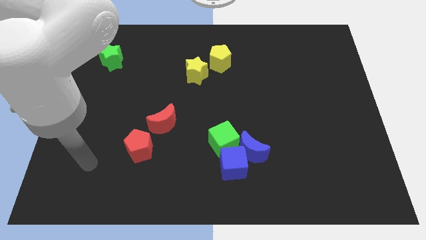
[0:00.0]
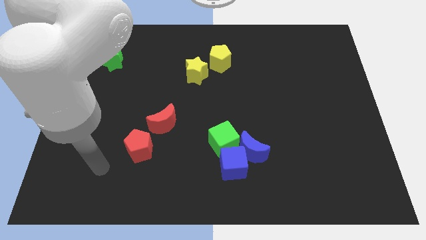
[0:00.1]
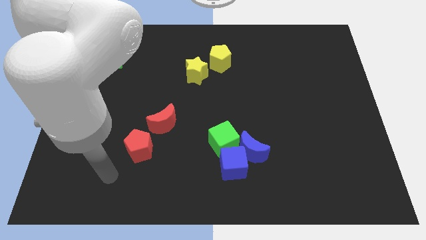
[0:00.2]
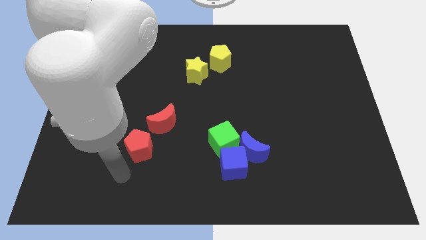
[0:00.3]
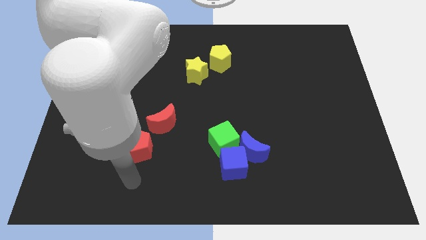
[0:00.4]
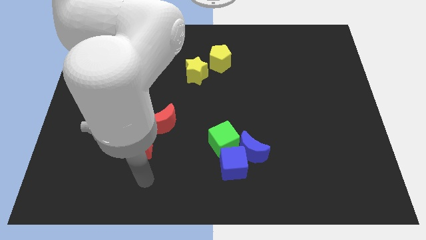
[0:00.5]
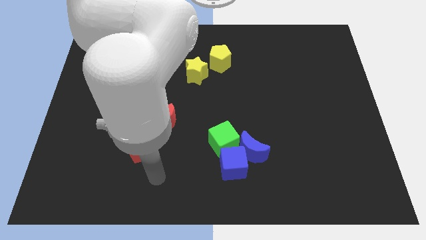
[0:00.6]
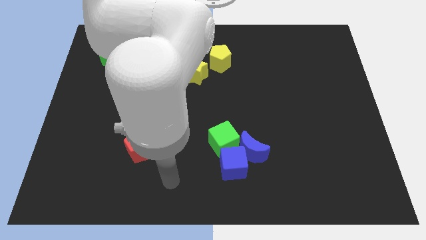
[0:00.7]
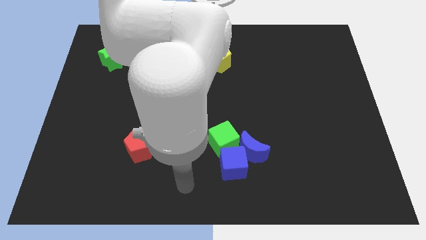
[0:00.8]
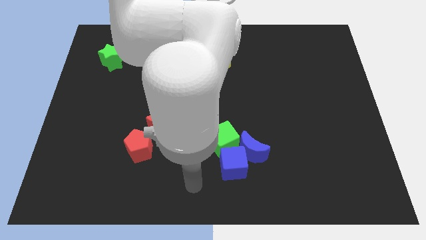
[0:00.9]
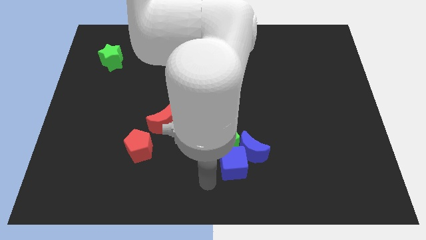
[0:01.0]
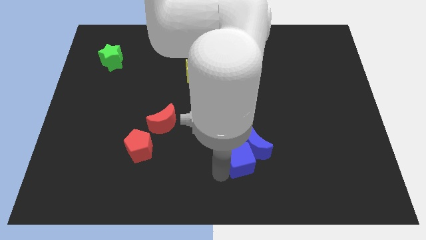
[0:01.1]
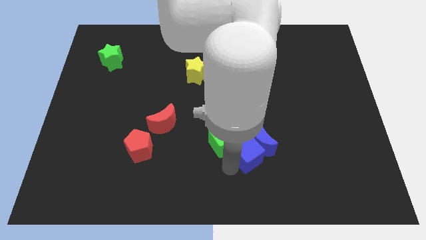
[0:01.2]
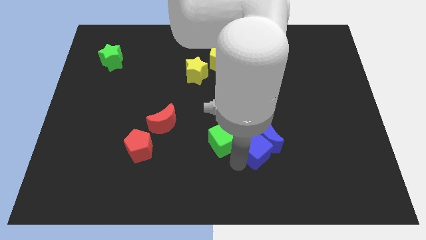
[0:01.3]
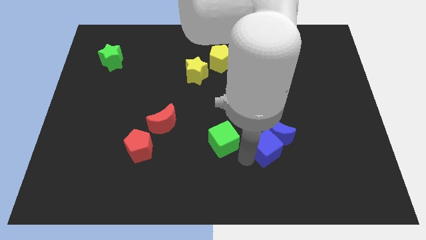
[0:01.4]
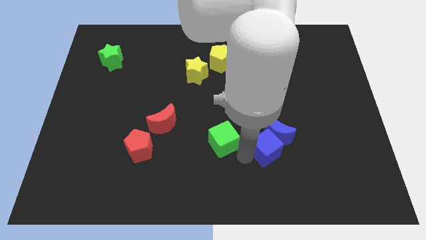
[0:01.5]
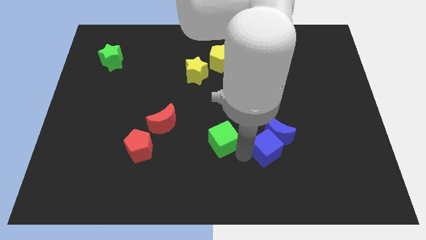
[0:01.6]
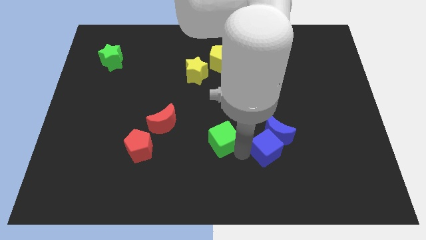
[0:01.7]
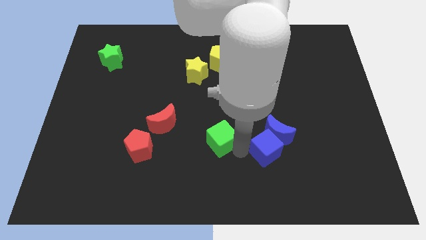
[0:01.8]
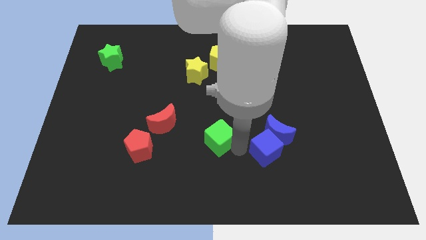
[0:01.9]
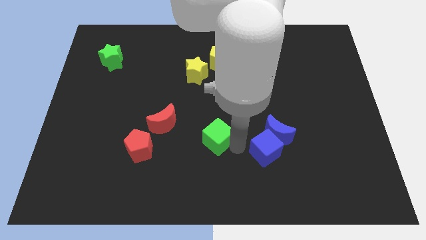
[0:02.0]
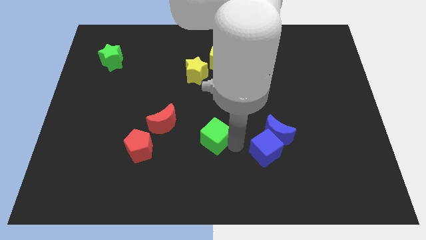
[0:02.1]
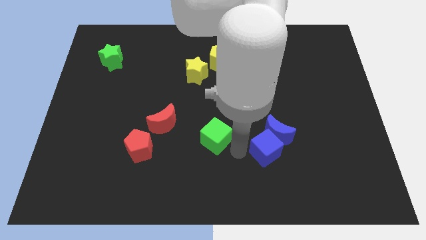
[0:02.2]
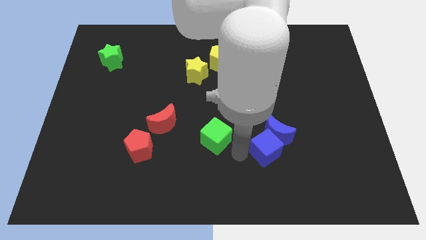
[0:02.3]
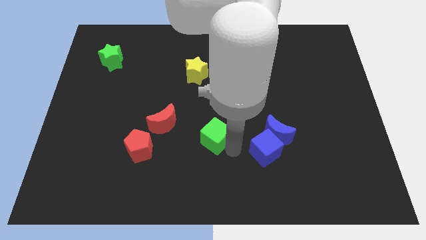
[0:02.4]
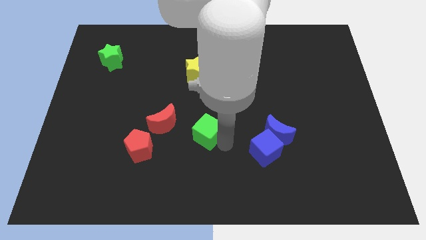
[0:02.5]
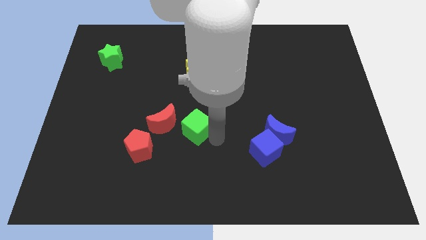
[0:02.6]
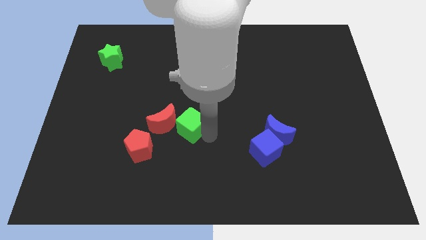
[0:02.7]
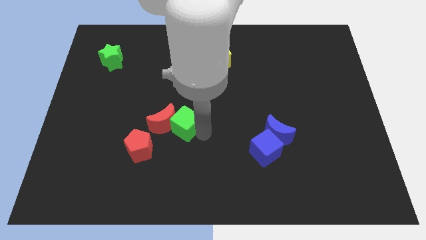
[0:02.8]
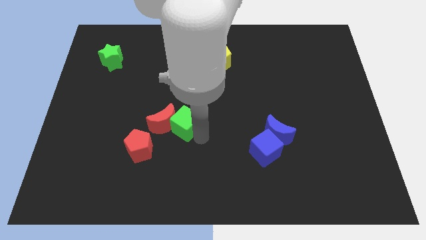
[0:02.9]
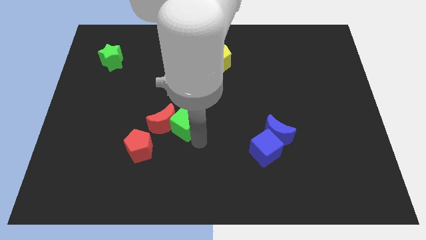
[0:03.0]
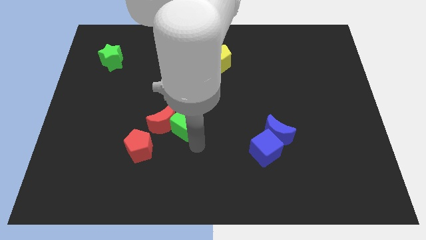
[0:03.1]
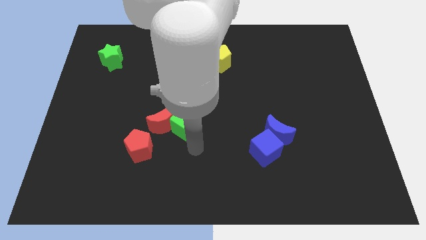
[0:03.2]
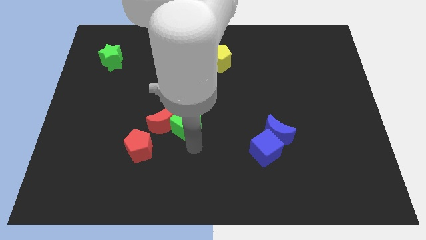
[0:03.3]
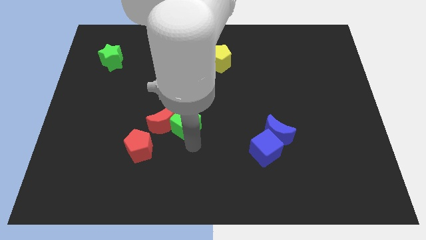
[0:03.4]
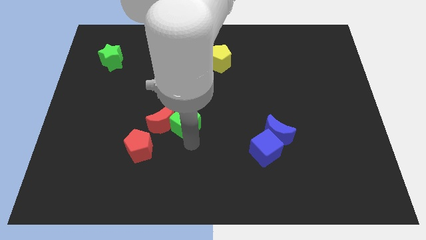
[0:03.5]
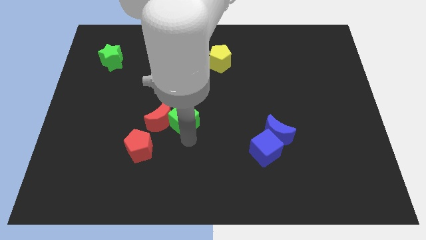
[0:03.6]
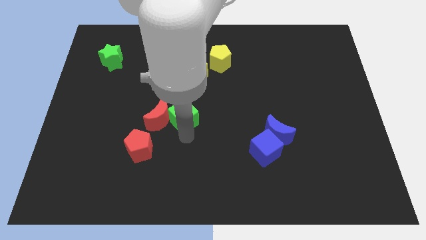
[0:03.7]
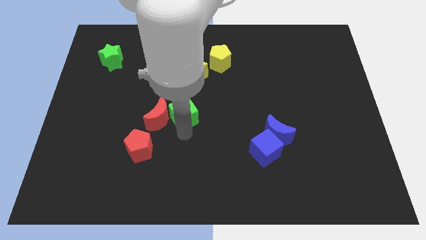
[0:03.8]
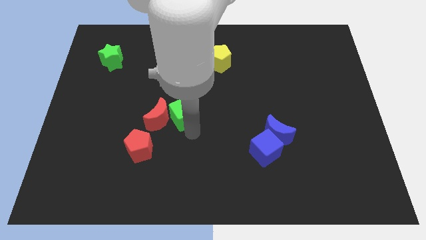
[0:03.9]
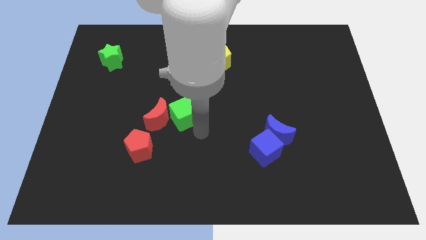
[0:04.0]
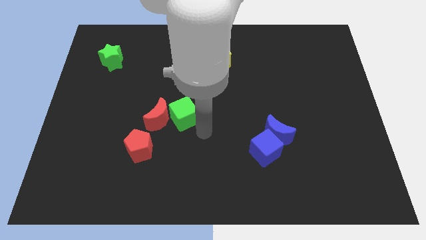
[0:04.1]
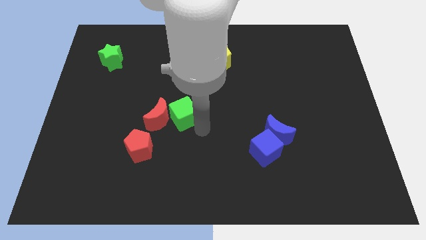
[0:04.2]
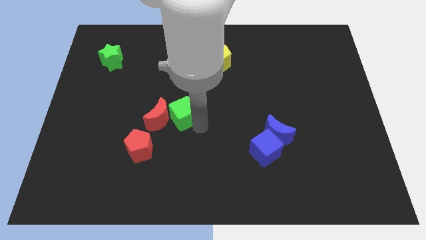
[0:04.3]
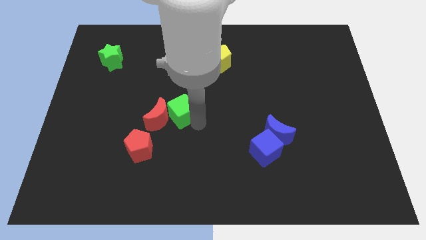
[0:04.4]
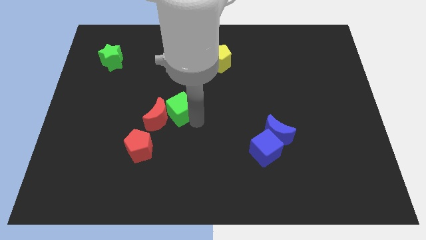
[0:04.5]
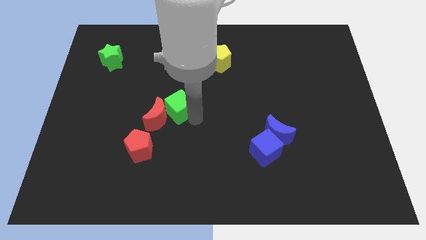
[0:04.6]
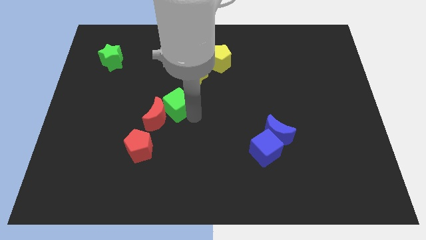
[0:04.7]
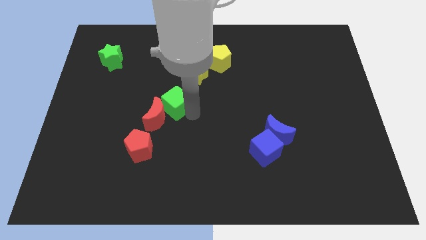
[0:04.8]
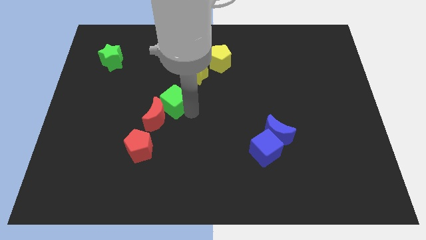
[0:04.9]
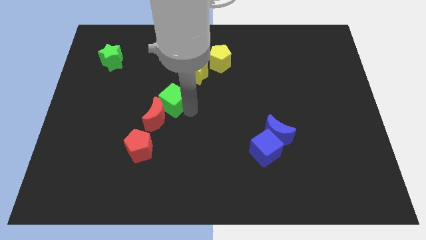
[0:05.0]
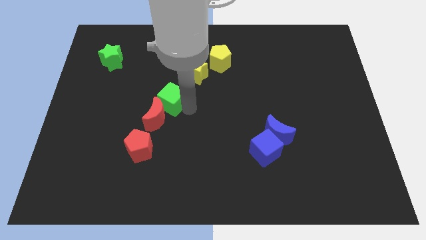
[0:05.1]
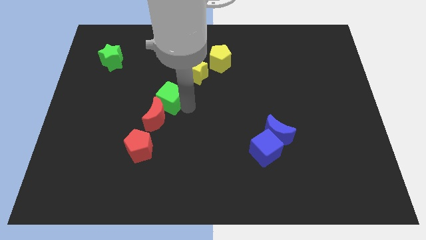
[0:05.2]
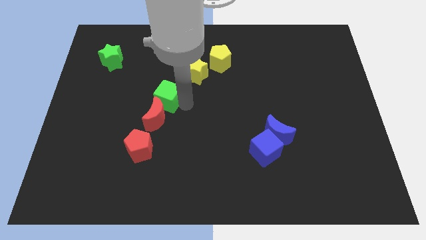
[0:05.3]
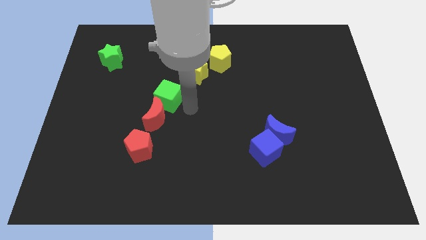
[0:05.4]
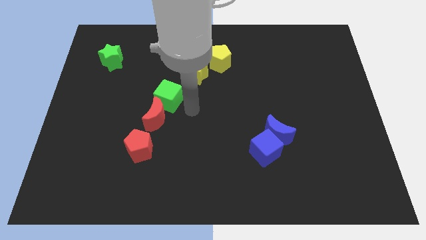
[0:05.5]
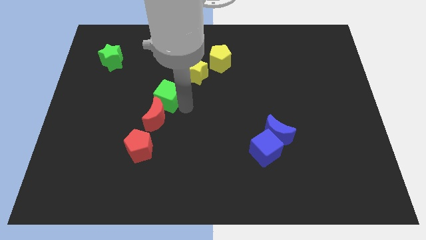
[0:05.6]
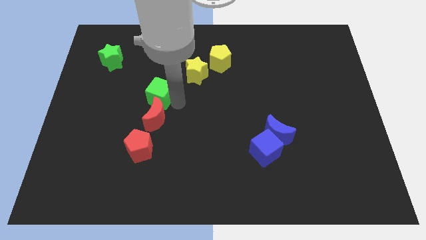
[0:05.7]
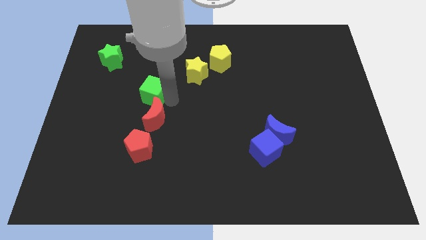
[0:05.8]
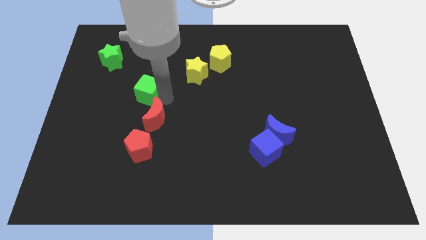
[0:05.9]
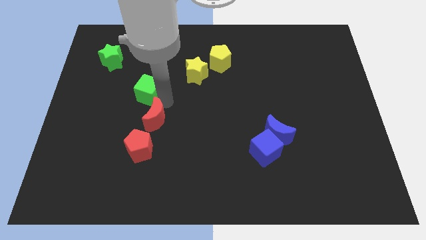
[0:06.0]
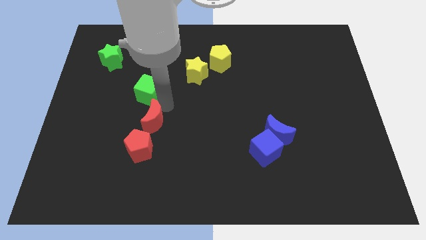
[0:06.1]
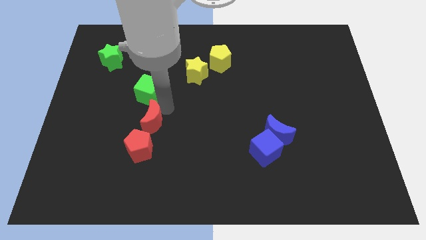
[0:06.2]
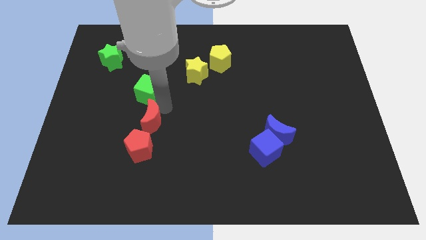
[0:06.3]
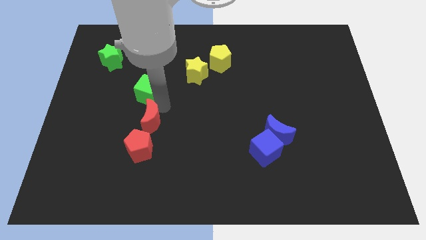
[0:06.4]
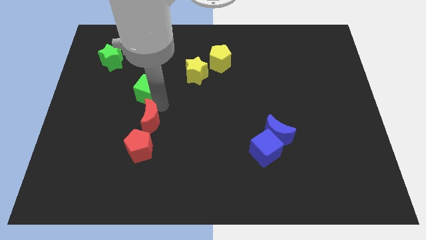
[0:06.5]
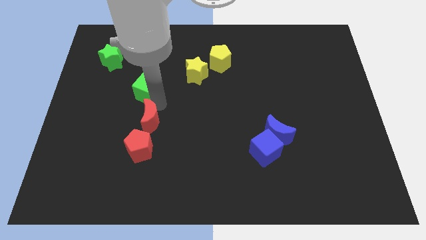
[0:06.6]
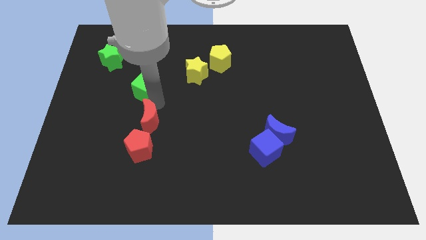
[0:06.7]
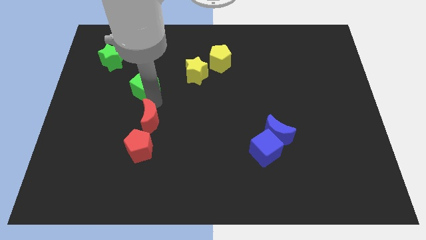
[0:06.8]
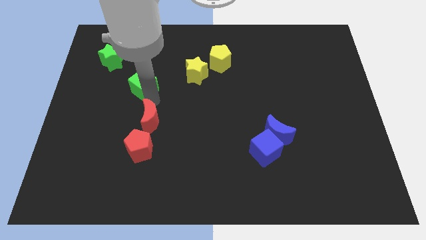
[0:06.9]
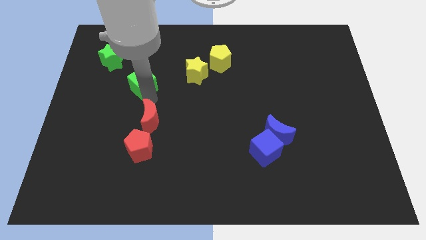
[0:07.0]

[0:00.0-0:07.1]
push the green cube to the bottom right of the green star
